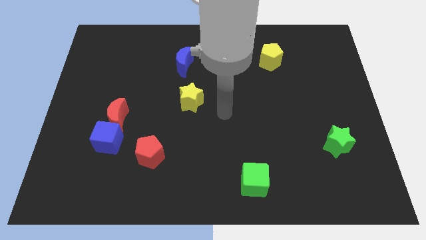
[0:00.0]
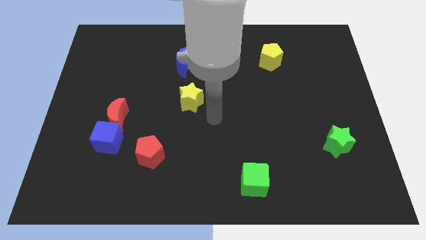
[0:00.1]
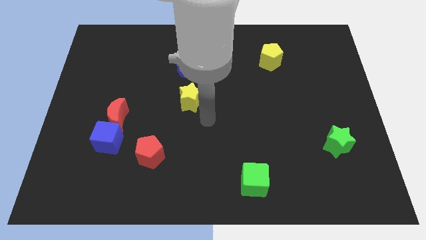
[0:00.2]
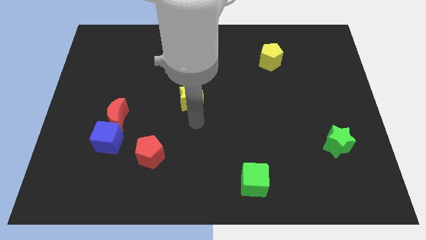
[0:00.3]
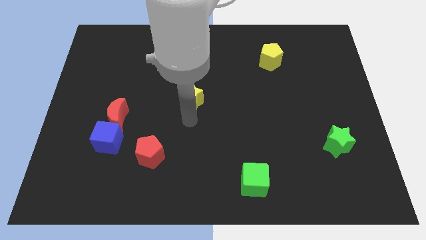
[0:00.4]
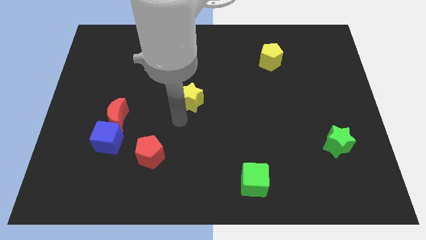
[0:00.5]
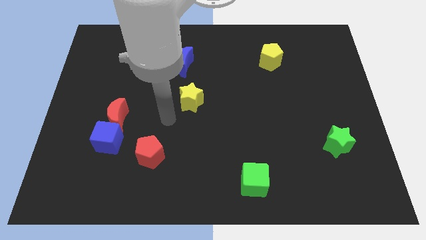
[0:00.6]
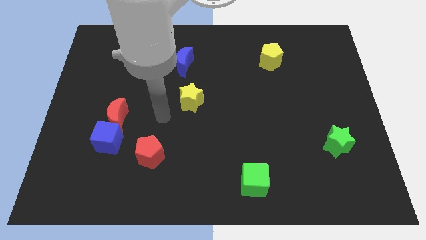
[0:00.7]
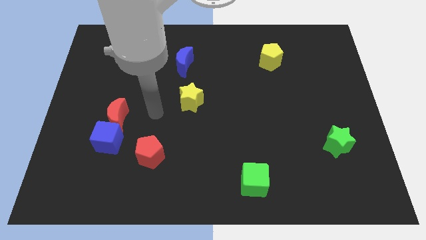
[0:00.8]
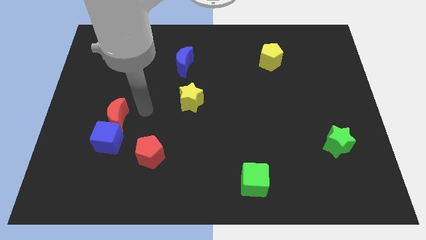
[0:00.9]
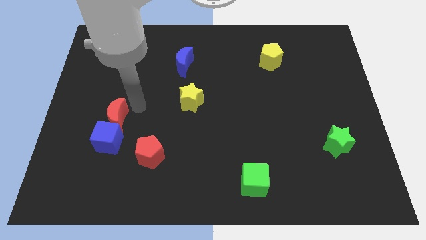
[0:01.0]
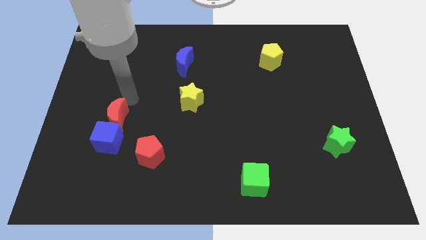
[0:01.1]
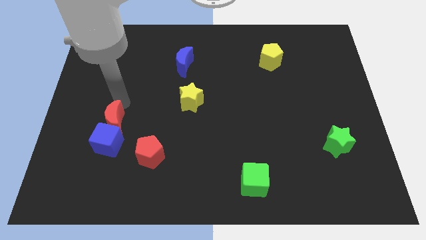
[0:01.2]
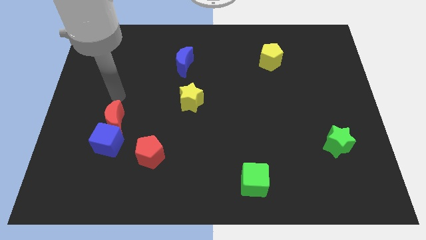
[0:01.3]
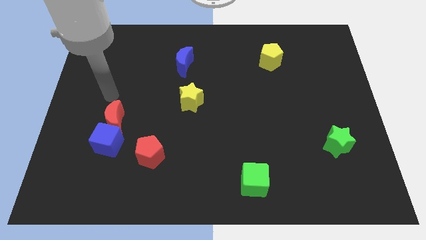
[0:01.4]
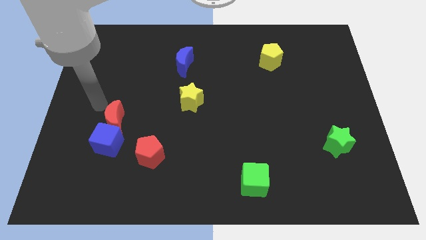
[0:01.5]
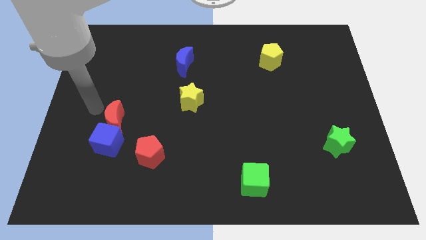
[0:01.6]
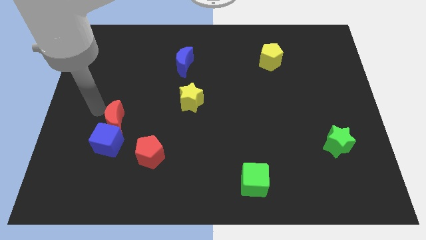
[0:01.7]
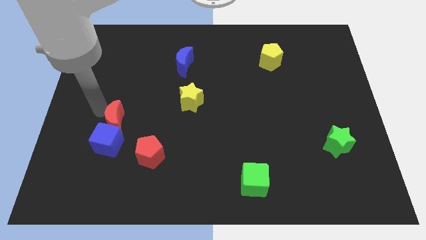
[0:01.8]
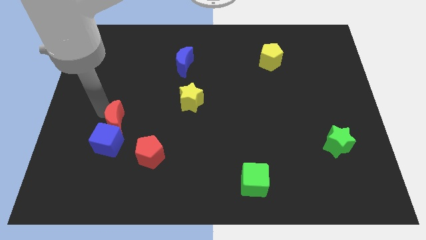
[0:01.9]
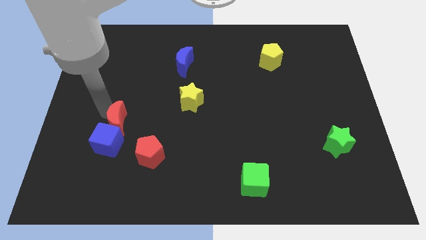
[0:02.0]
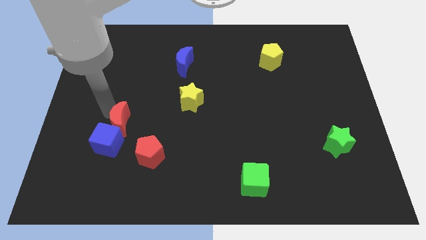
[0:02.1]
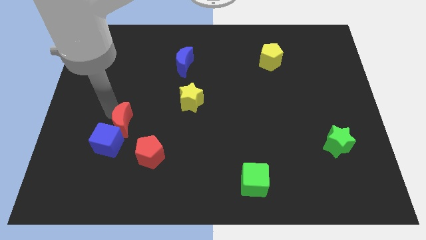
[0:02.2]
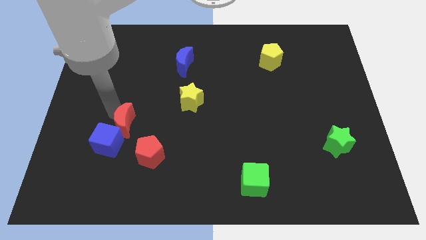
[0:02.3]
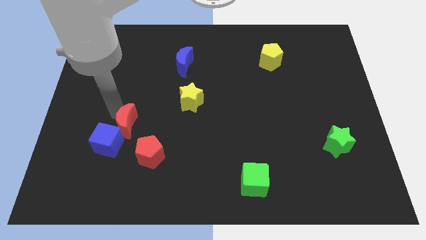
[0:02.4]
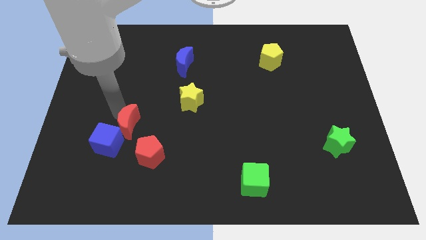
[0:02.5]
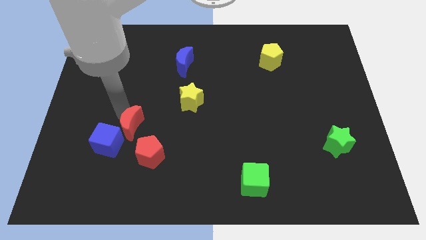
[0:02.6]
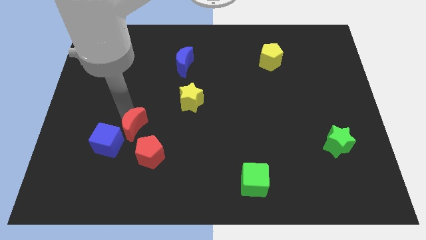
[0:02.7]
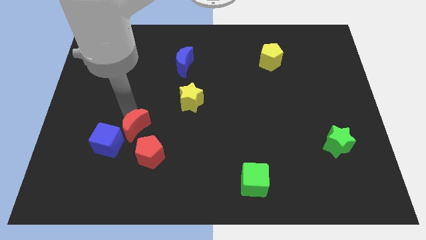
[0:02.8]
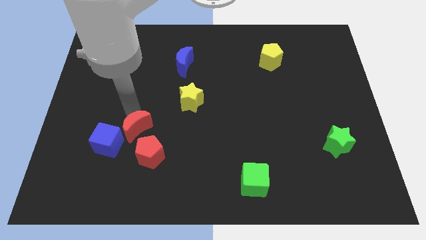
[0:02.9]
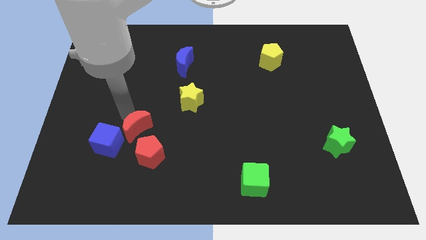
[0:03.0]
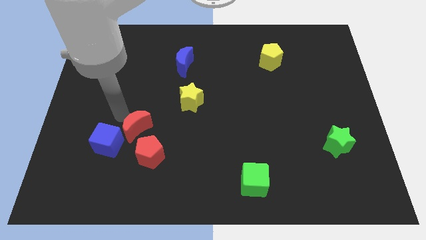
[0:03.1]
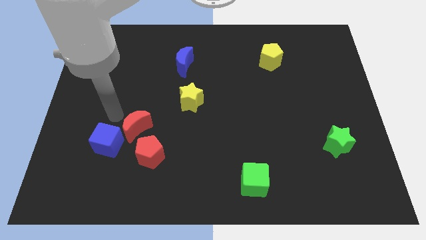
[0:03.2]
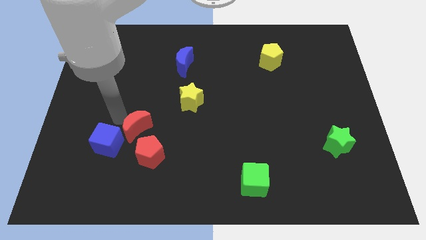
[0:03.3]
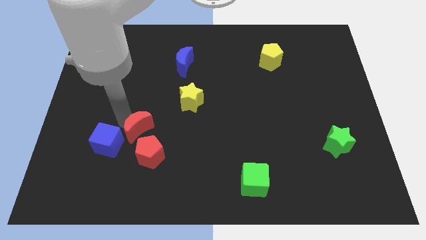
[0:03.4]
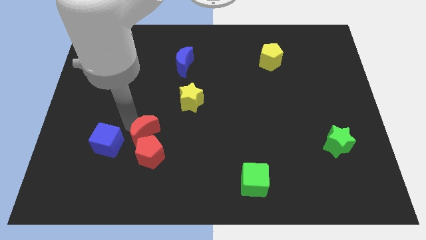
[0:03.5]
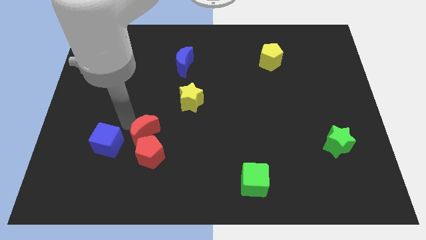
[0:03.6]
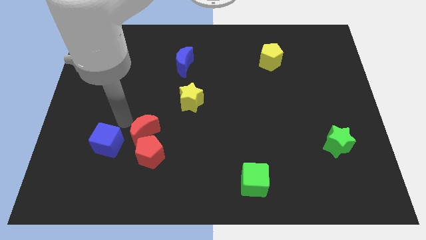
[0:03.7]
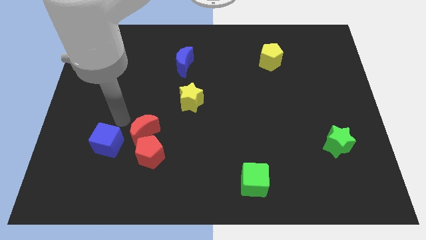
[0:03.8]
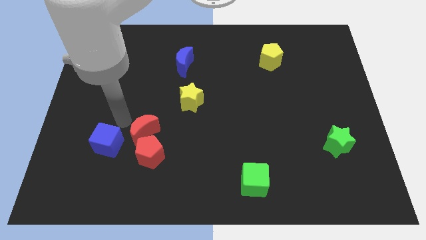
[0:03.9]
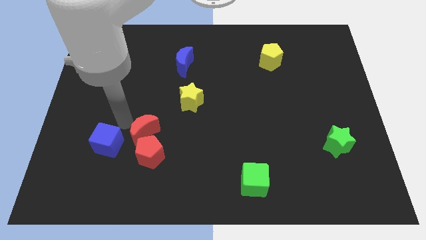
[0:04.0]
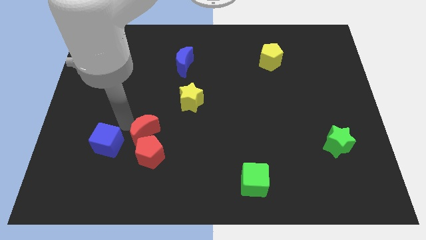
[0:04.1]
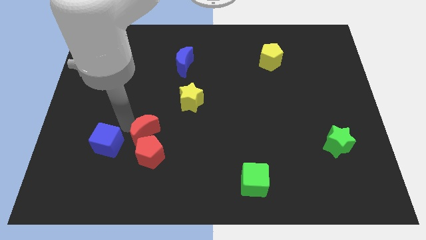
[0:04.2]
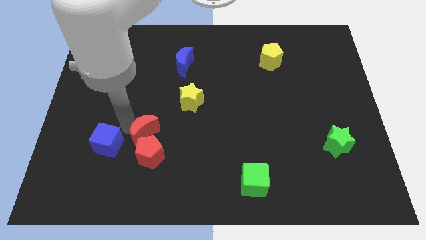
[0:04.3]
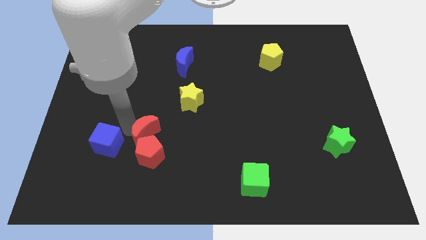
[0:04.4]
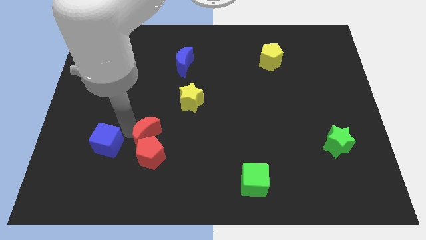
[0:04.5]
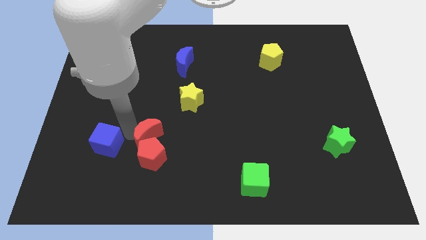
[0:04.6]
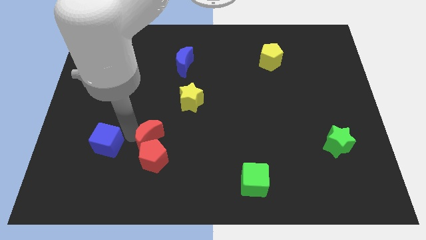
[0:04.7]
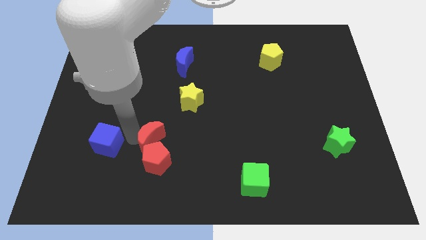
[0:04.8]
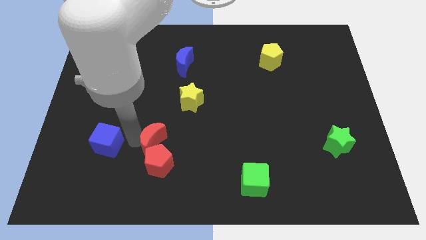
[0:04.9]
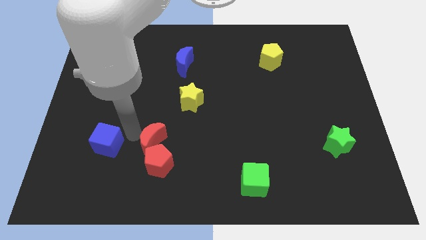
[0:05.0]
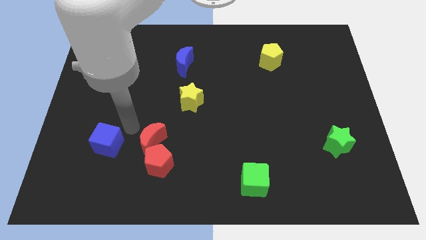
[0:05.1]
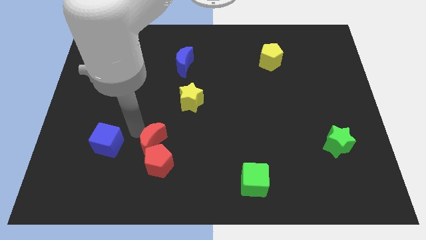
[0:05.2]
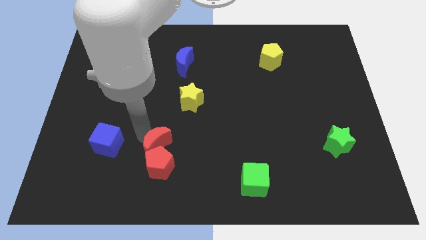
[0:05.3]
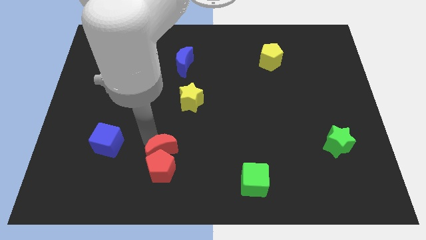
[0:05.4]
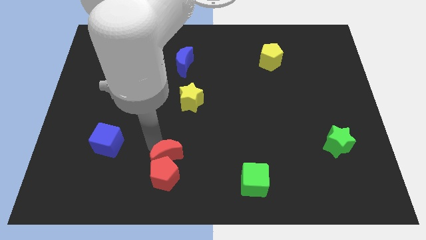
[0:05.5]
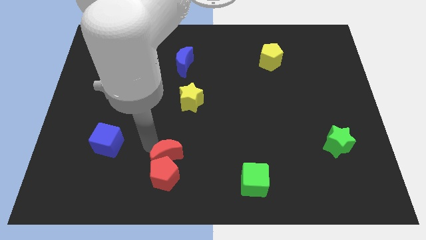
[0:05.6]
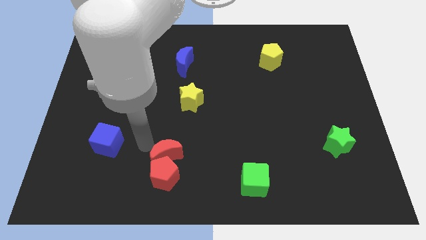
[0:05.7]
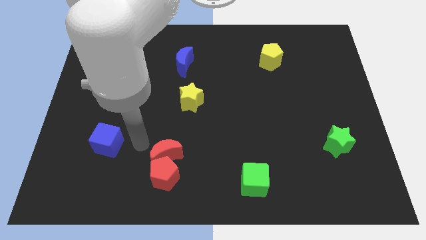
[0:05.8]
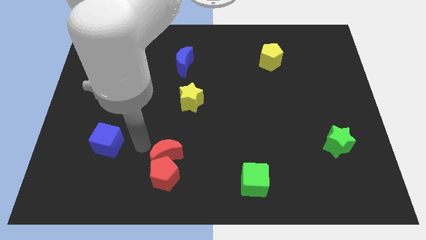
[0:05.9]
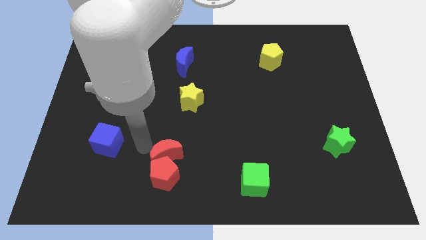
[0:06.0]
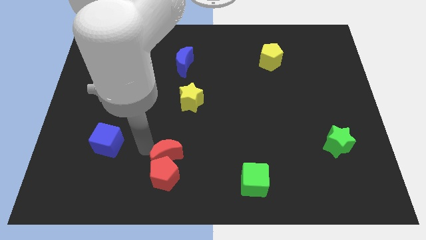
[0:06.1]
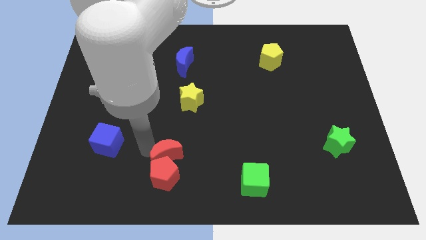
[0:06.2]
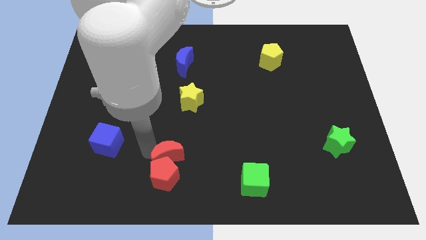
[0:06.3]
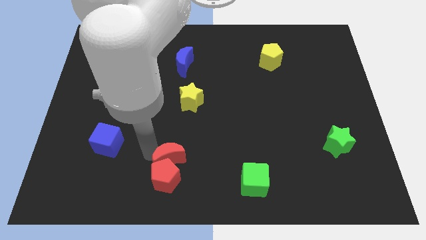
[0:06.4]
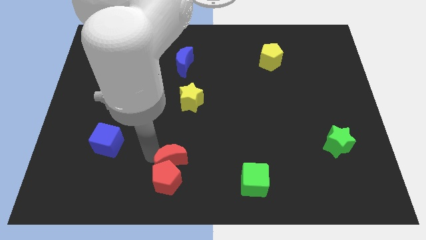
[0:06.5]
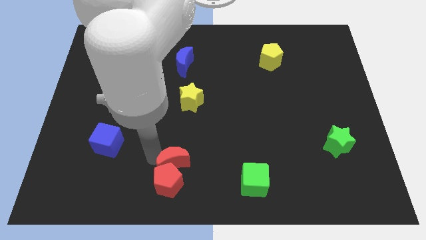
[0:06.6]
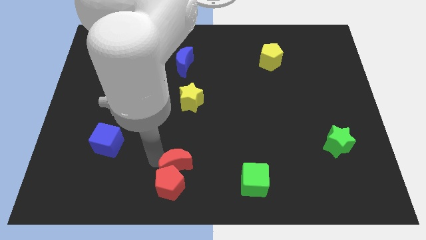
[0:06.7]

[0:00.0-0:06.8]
put the red moon to the bottom side
